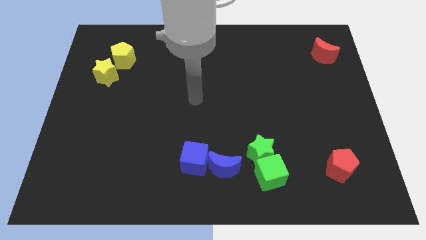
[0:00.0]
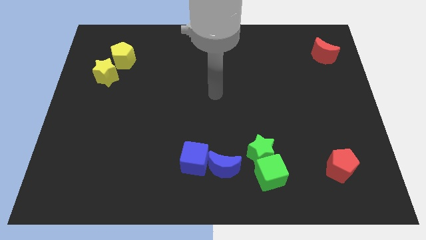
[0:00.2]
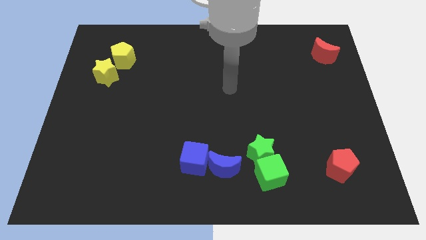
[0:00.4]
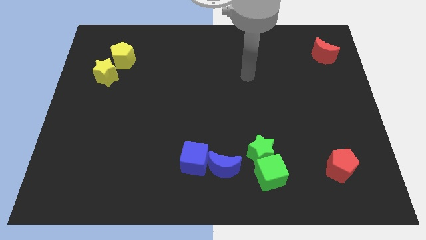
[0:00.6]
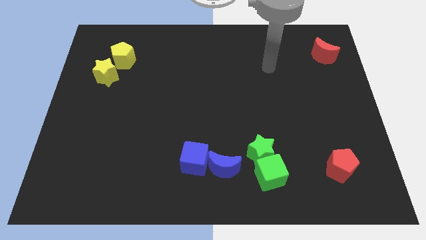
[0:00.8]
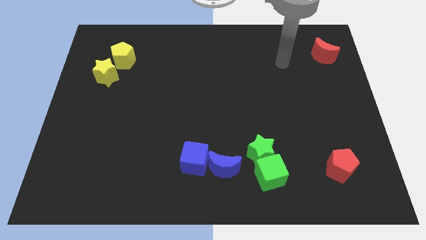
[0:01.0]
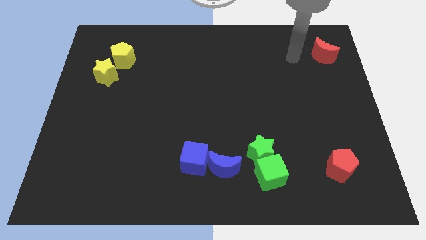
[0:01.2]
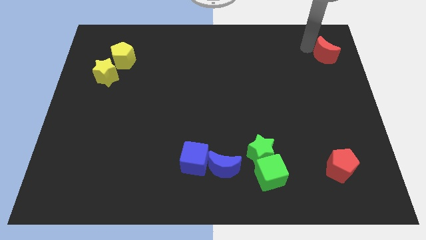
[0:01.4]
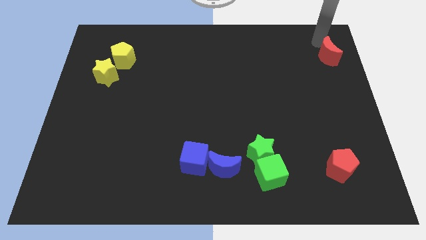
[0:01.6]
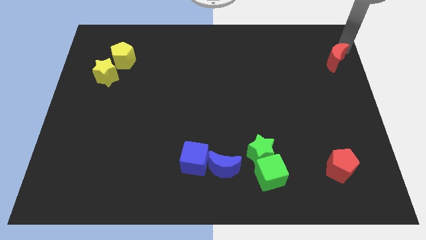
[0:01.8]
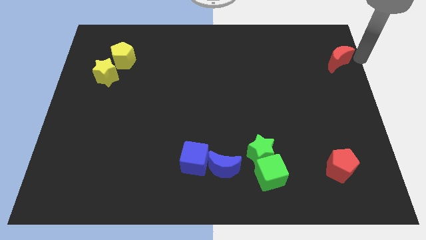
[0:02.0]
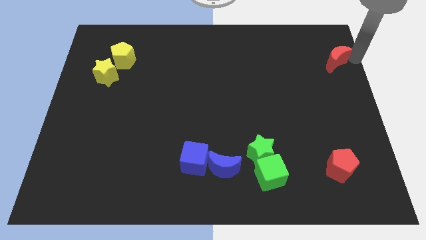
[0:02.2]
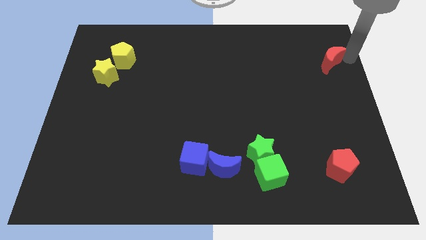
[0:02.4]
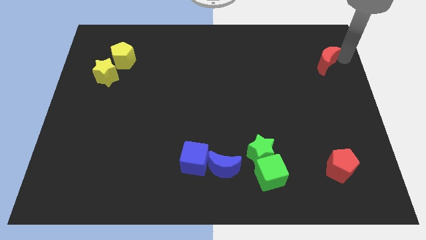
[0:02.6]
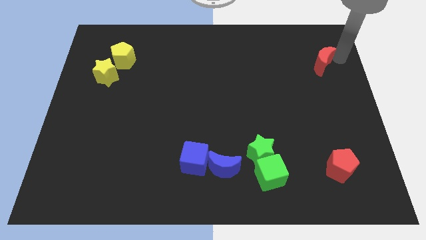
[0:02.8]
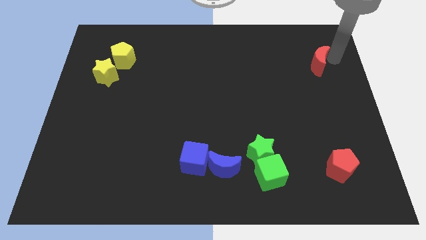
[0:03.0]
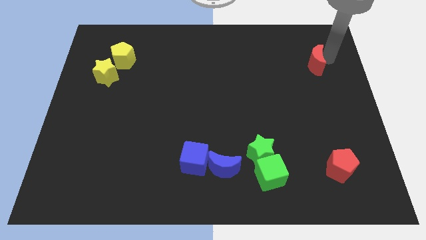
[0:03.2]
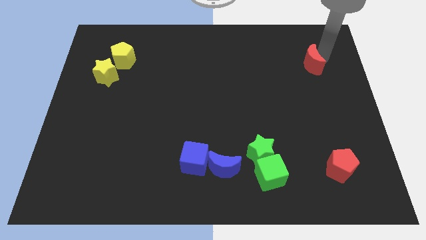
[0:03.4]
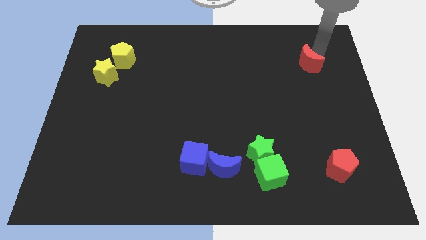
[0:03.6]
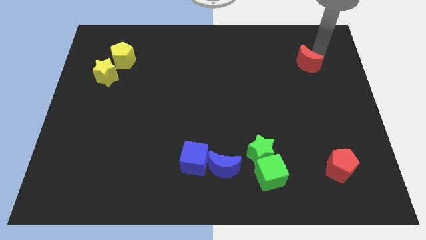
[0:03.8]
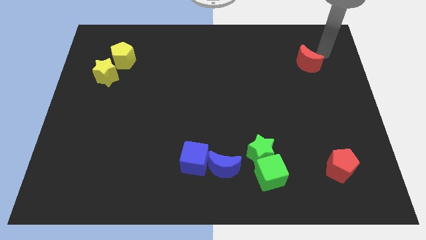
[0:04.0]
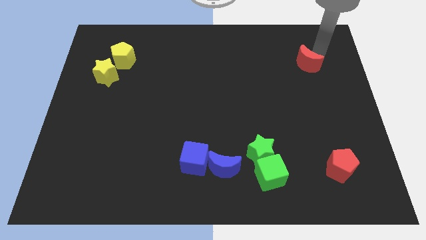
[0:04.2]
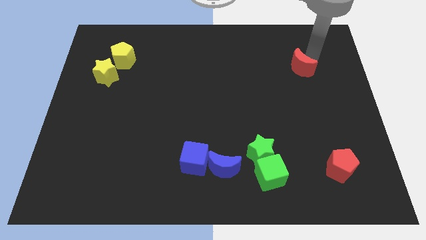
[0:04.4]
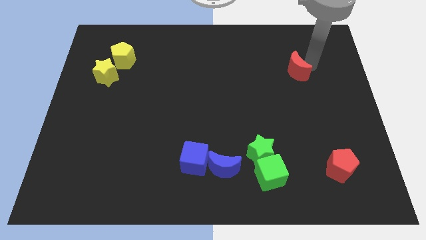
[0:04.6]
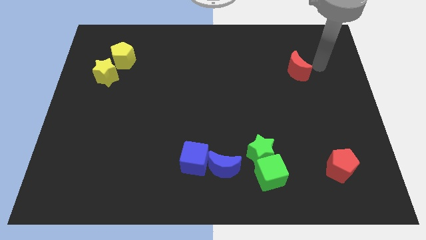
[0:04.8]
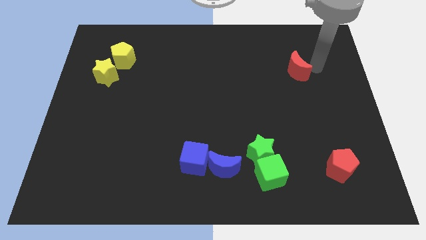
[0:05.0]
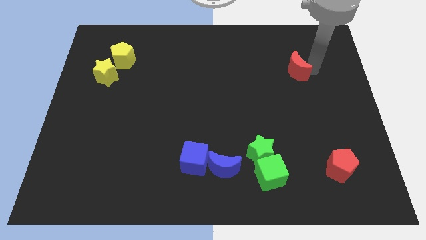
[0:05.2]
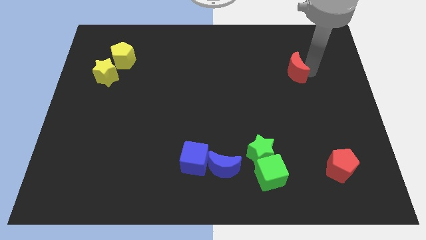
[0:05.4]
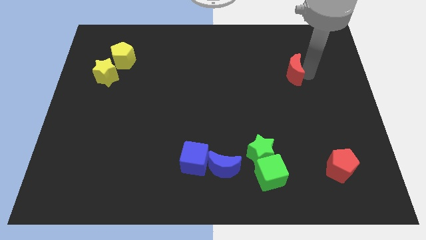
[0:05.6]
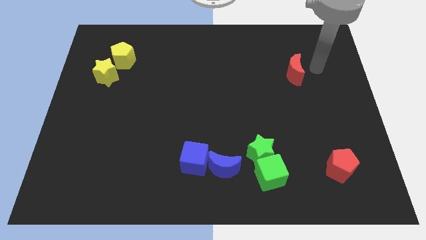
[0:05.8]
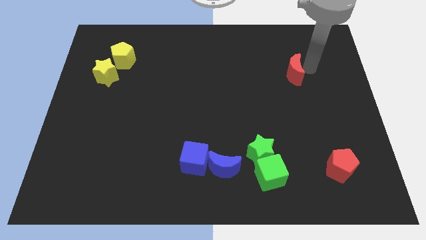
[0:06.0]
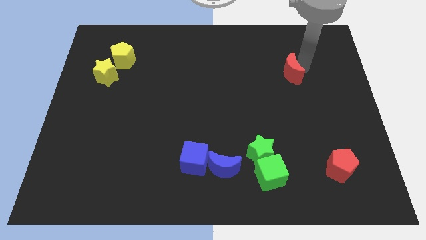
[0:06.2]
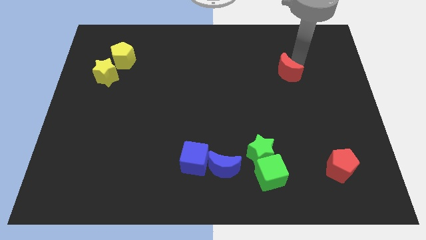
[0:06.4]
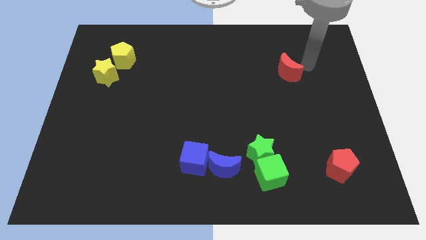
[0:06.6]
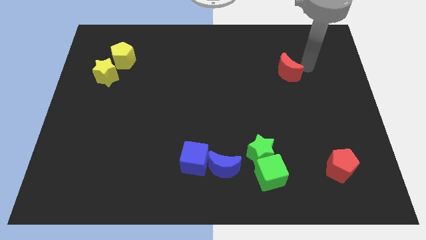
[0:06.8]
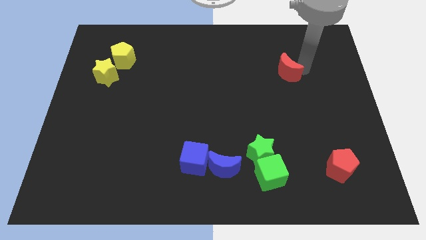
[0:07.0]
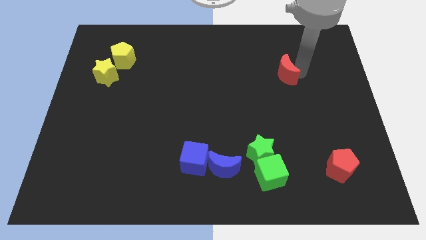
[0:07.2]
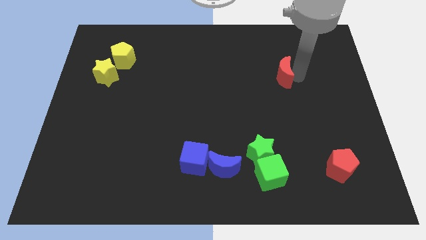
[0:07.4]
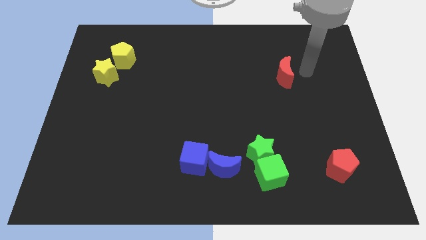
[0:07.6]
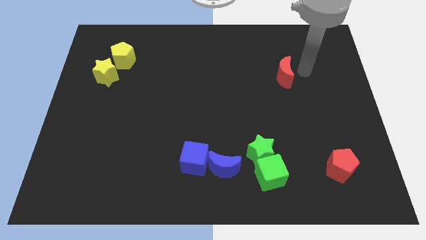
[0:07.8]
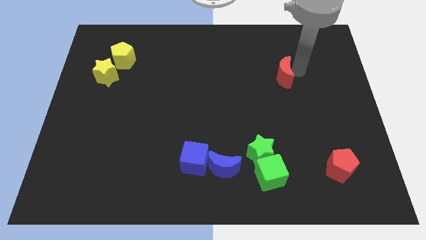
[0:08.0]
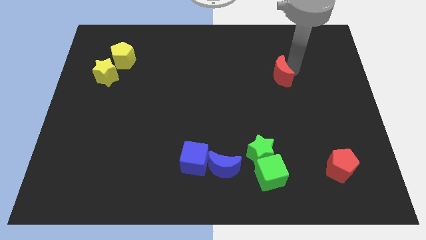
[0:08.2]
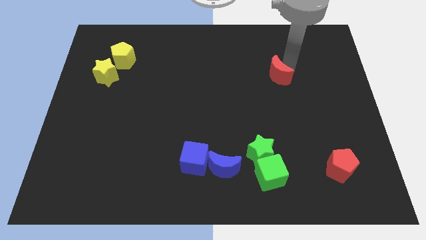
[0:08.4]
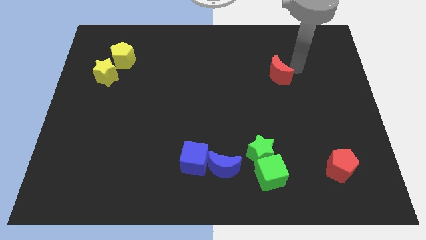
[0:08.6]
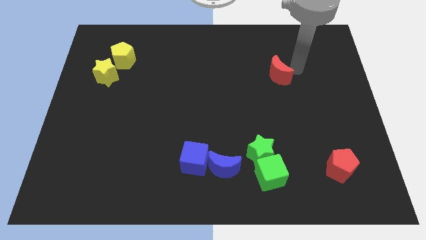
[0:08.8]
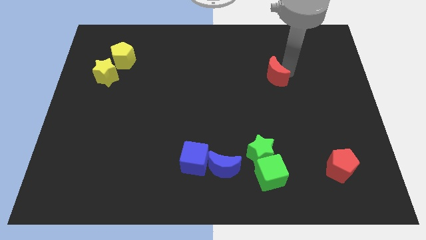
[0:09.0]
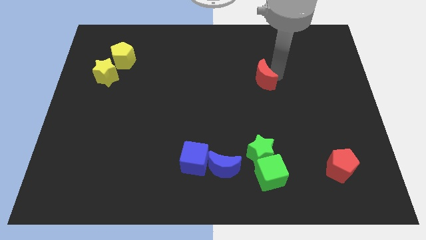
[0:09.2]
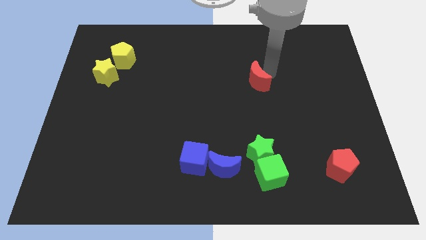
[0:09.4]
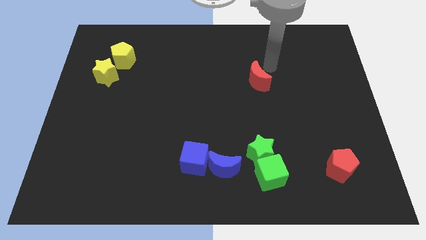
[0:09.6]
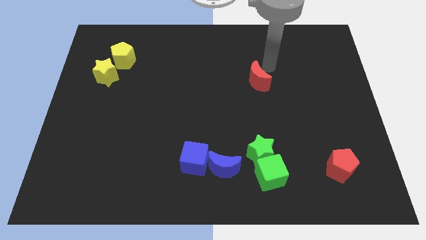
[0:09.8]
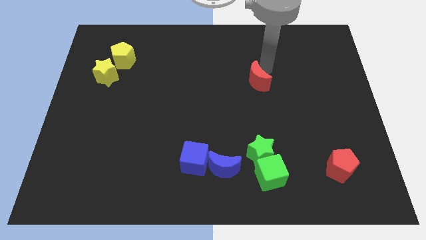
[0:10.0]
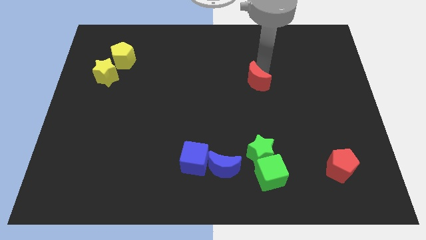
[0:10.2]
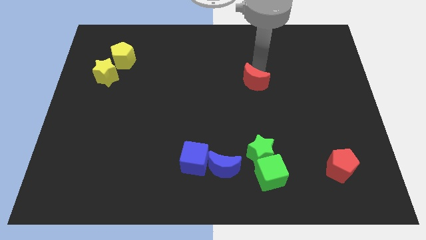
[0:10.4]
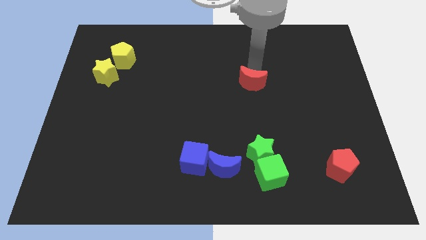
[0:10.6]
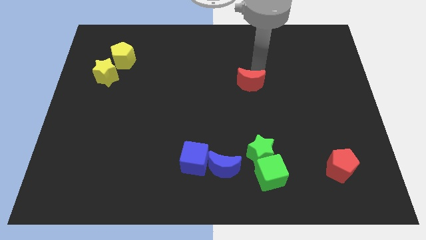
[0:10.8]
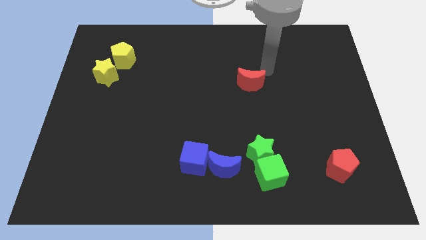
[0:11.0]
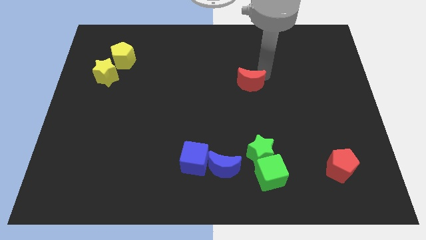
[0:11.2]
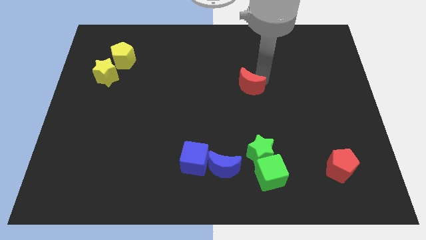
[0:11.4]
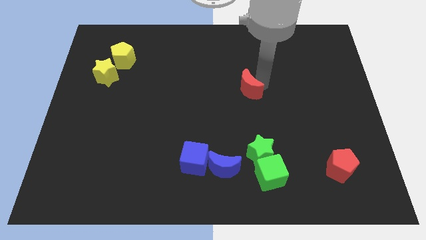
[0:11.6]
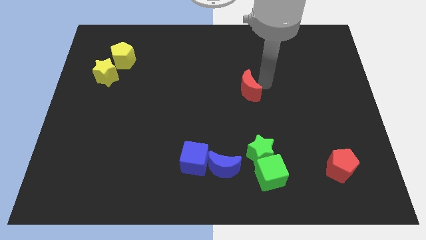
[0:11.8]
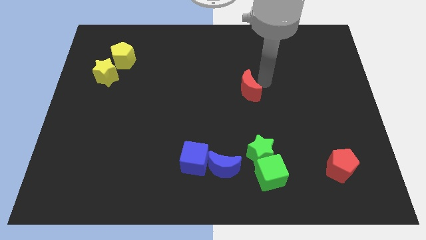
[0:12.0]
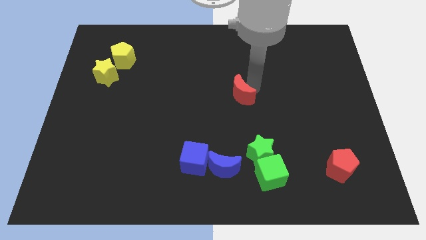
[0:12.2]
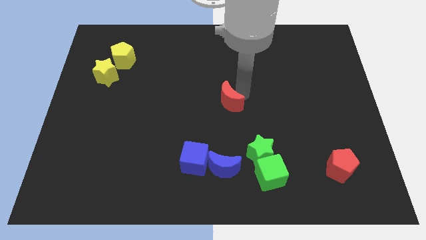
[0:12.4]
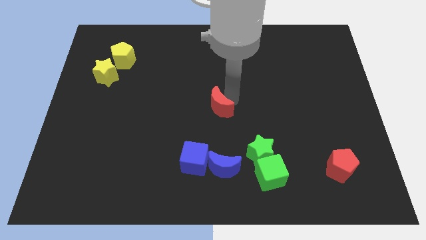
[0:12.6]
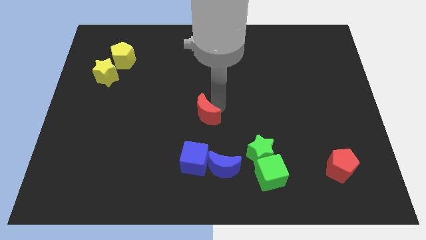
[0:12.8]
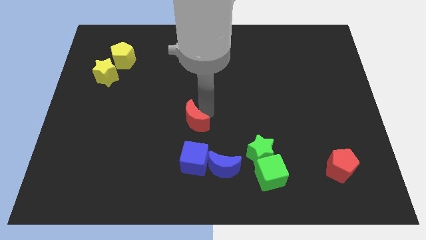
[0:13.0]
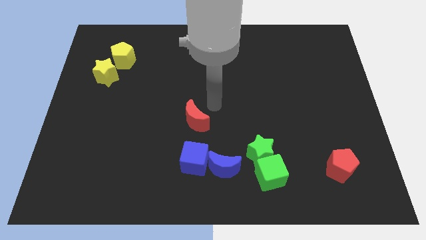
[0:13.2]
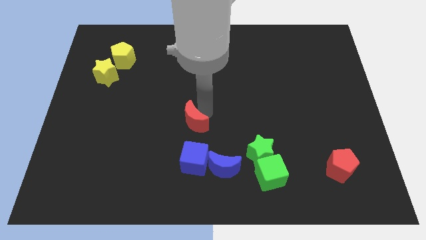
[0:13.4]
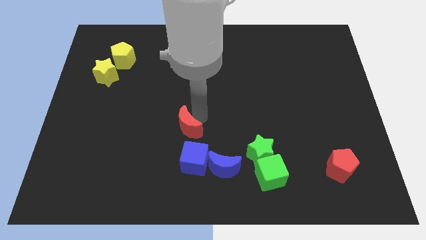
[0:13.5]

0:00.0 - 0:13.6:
slide the red moon to the top left side of the blue cube
